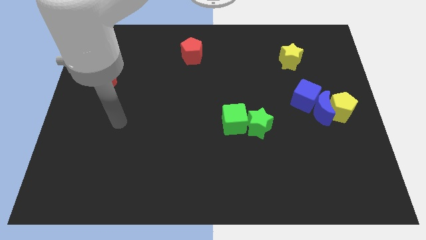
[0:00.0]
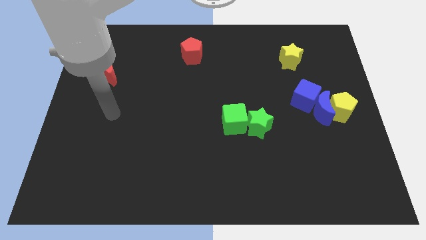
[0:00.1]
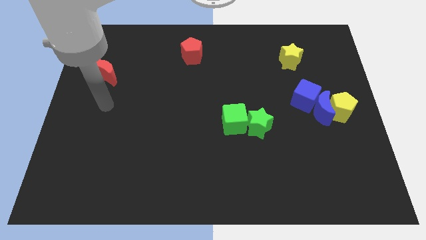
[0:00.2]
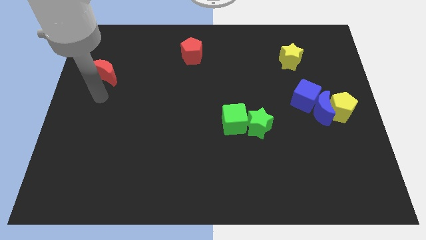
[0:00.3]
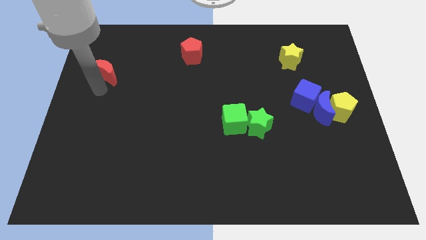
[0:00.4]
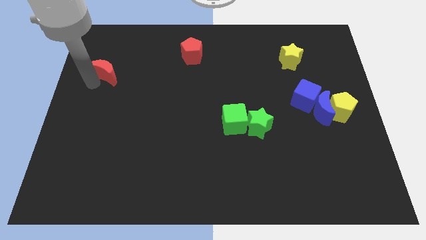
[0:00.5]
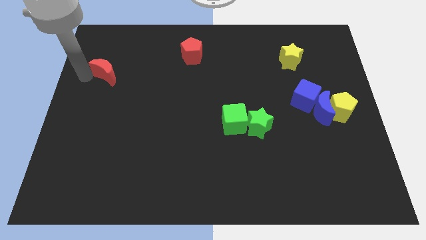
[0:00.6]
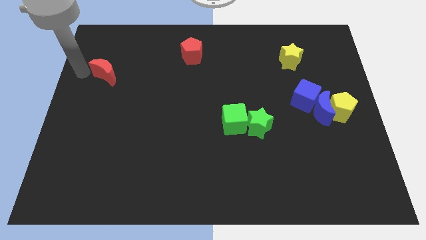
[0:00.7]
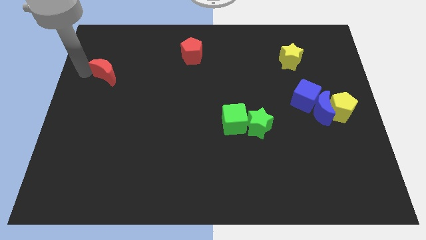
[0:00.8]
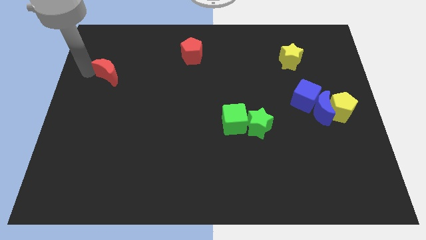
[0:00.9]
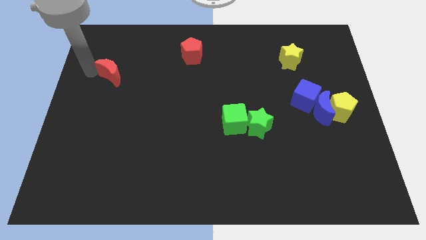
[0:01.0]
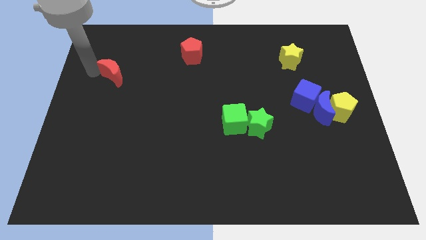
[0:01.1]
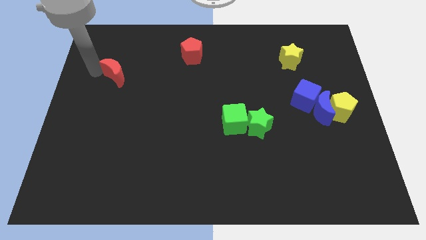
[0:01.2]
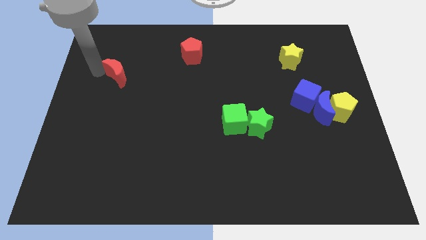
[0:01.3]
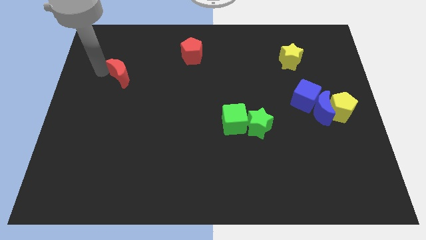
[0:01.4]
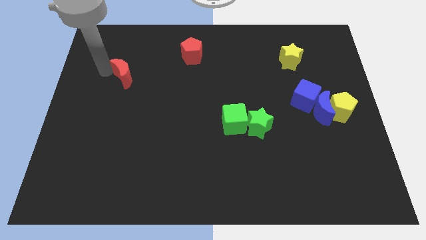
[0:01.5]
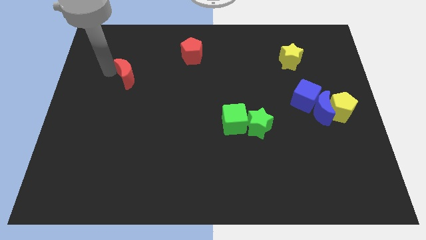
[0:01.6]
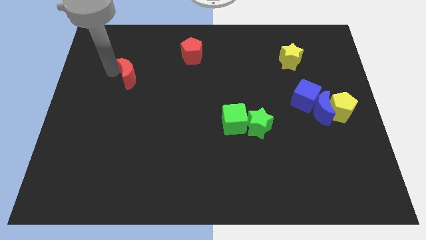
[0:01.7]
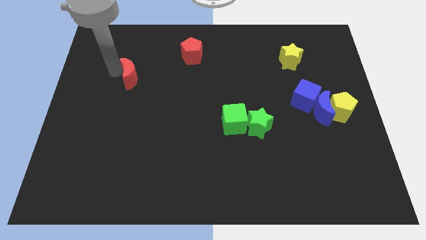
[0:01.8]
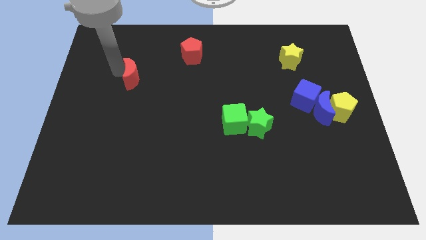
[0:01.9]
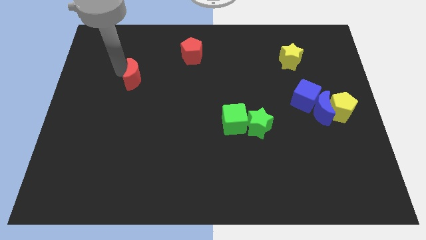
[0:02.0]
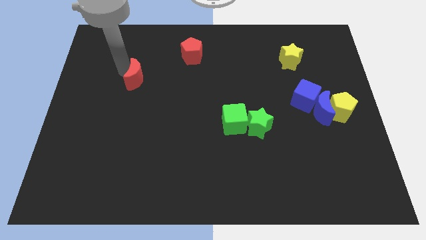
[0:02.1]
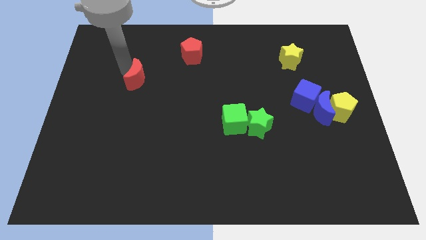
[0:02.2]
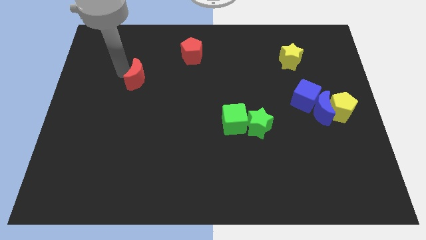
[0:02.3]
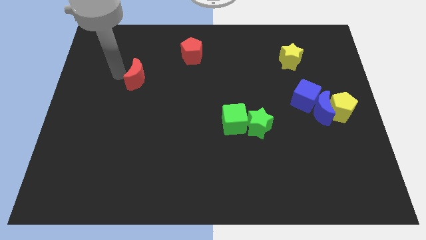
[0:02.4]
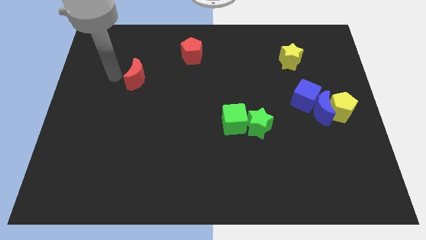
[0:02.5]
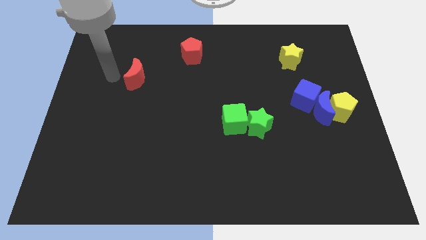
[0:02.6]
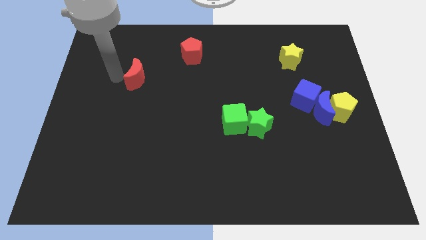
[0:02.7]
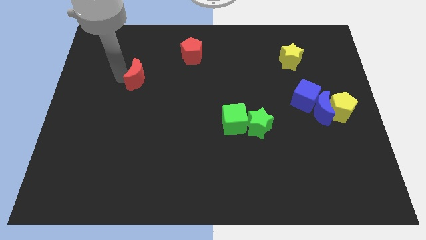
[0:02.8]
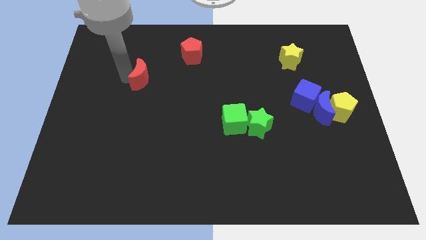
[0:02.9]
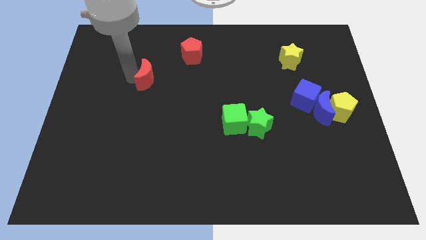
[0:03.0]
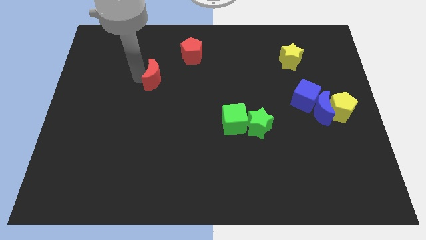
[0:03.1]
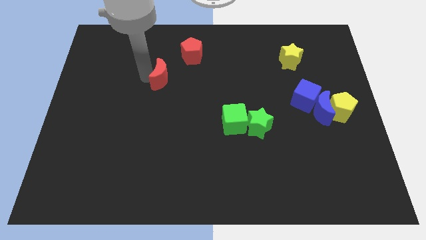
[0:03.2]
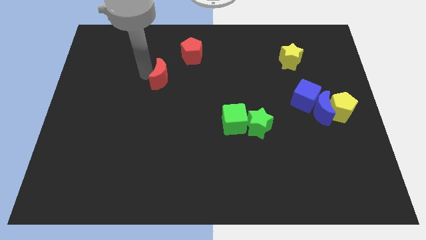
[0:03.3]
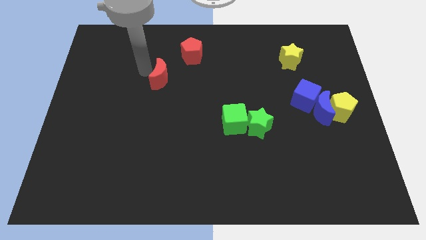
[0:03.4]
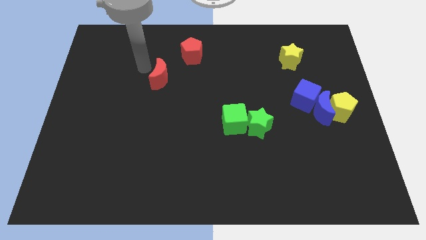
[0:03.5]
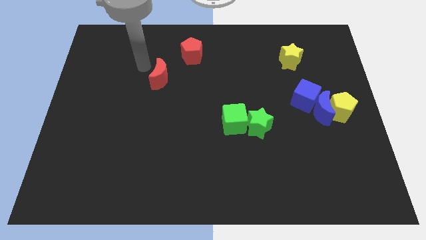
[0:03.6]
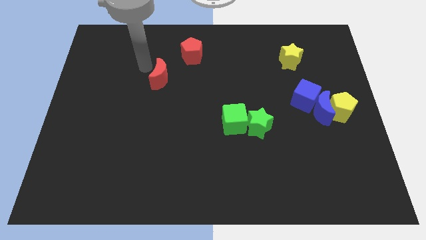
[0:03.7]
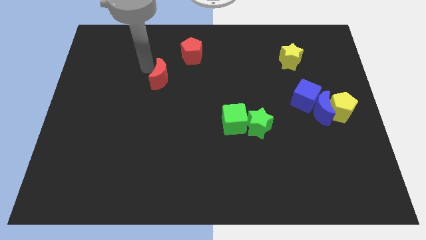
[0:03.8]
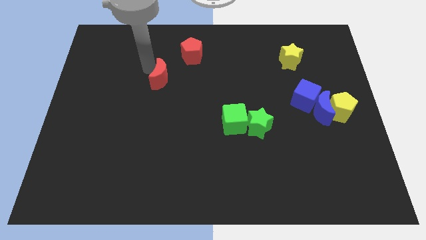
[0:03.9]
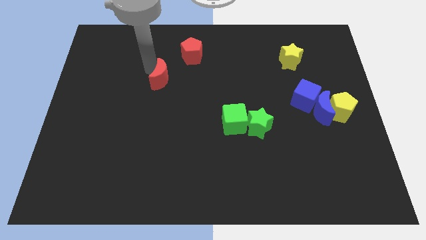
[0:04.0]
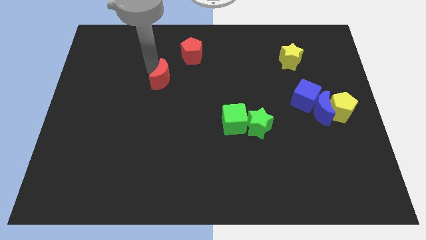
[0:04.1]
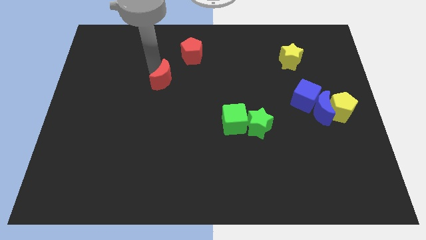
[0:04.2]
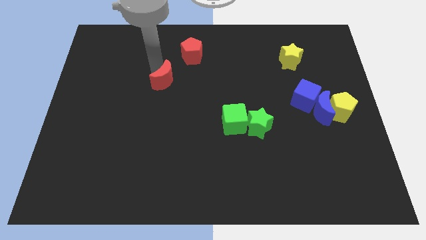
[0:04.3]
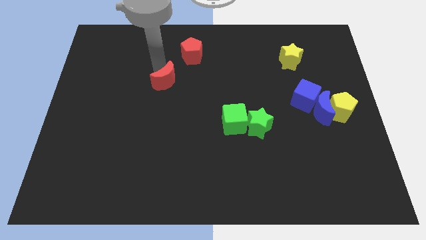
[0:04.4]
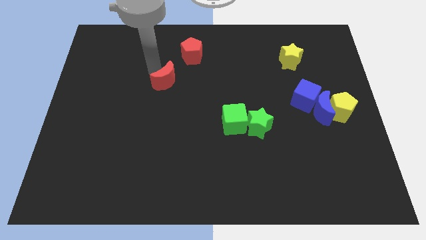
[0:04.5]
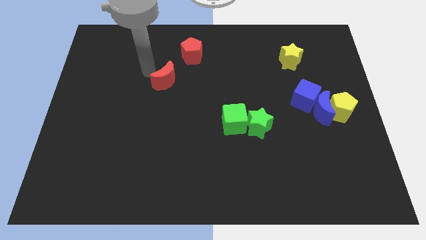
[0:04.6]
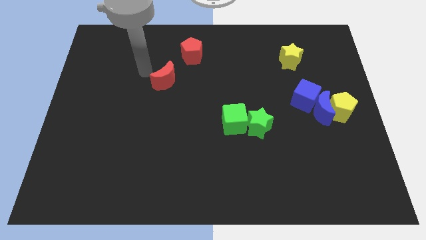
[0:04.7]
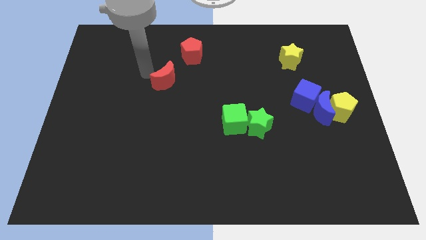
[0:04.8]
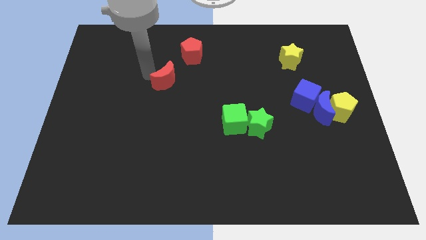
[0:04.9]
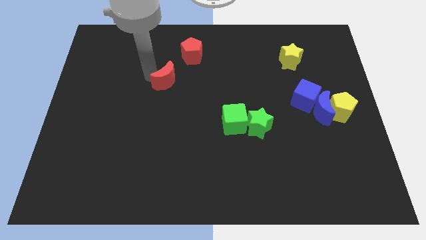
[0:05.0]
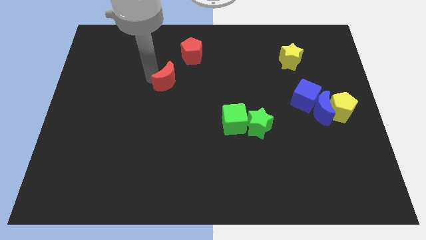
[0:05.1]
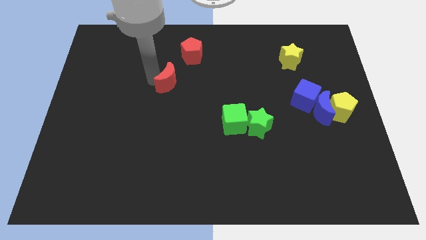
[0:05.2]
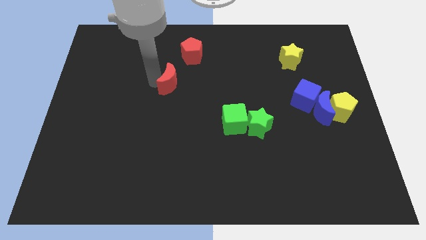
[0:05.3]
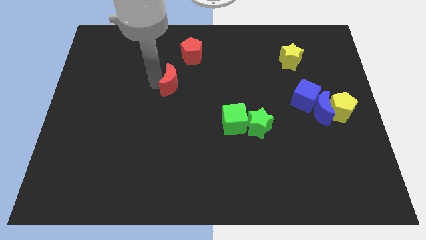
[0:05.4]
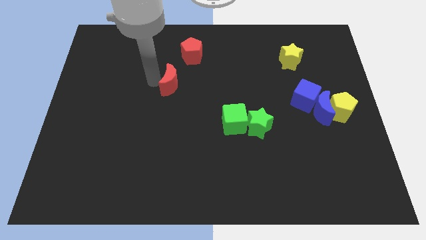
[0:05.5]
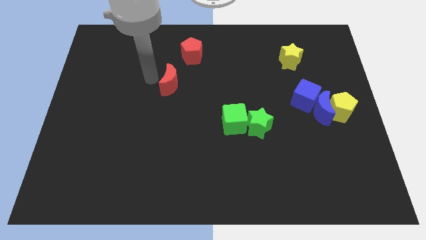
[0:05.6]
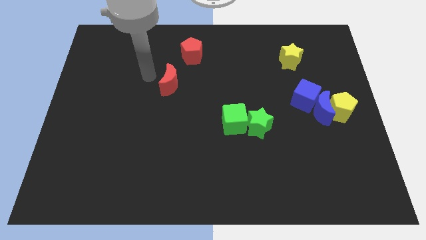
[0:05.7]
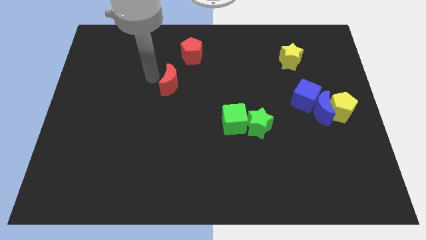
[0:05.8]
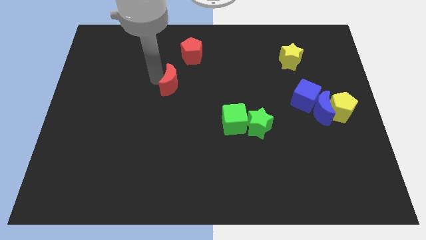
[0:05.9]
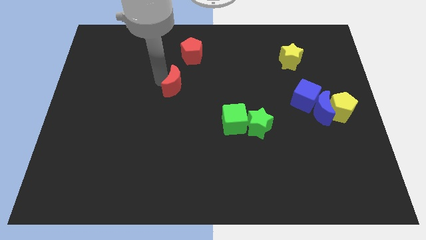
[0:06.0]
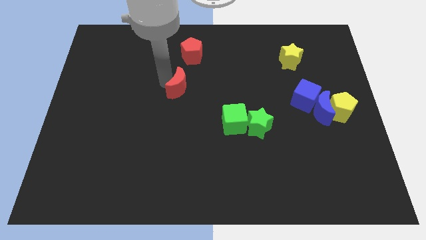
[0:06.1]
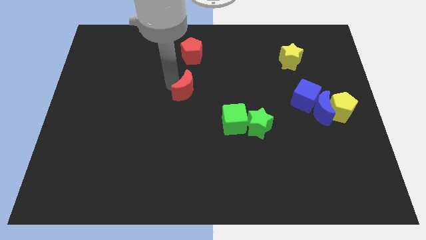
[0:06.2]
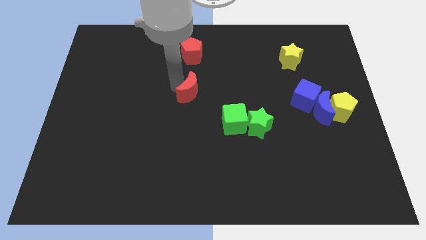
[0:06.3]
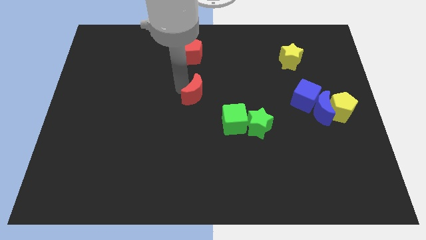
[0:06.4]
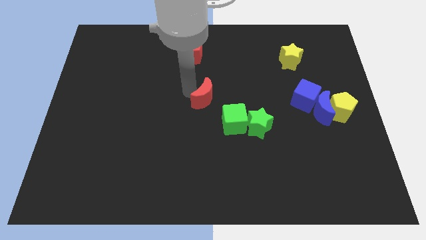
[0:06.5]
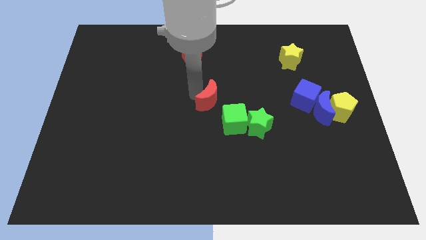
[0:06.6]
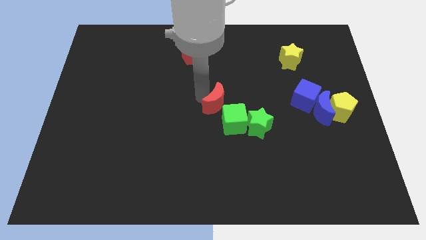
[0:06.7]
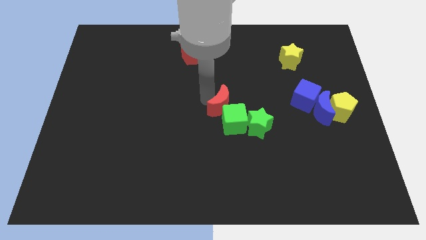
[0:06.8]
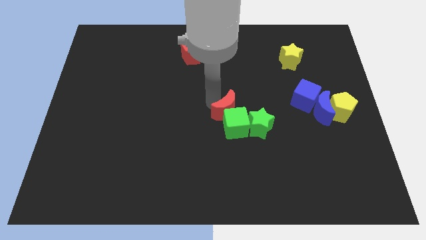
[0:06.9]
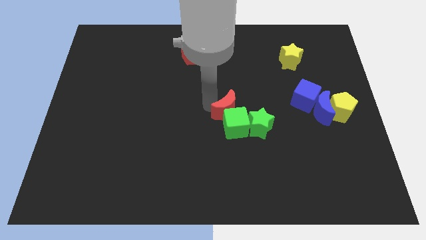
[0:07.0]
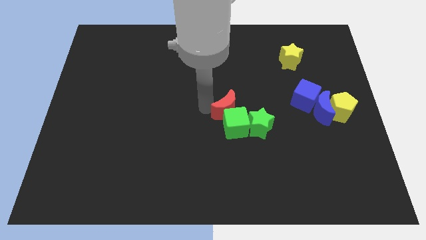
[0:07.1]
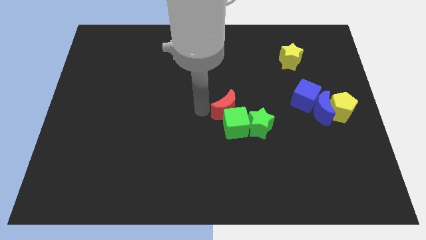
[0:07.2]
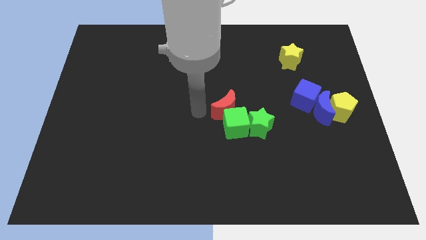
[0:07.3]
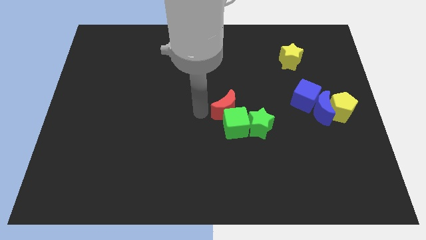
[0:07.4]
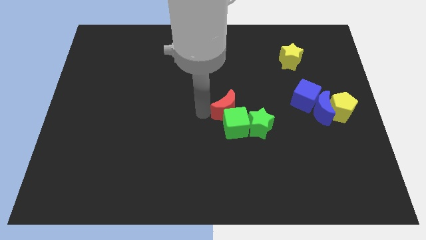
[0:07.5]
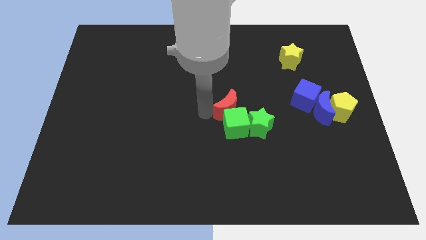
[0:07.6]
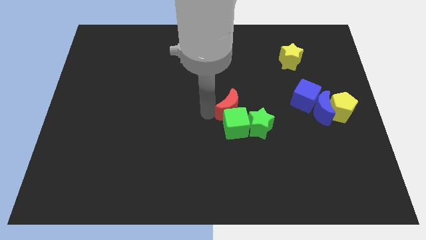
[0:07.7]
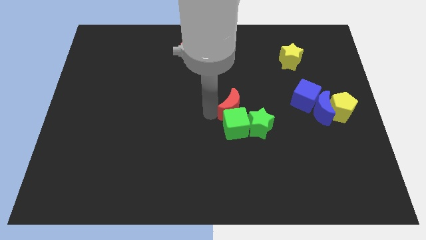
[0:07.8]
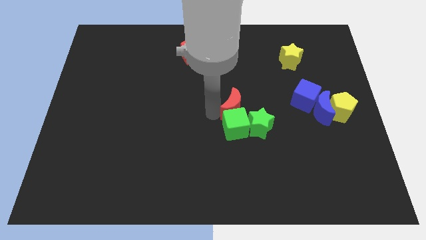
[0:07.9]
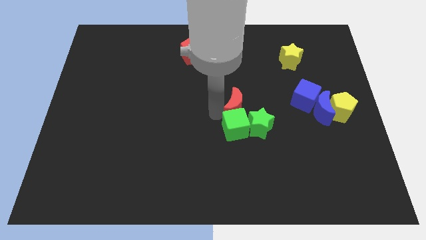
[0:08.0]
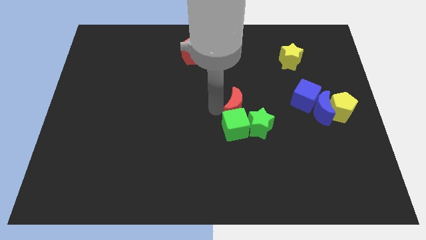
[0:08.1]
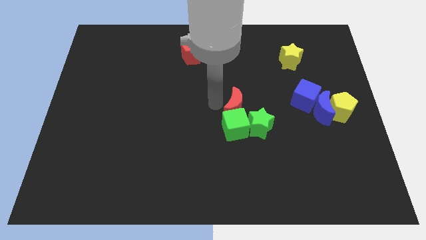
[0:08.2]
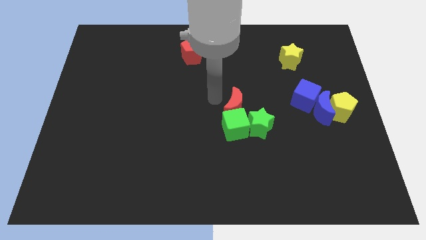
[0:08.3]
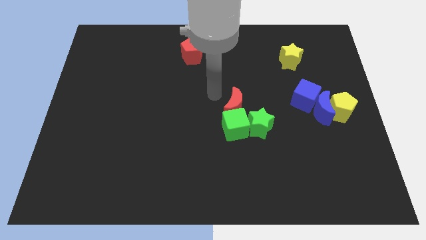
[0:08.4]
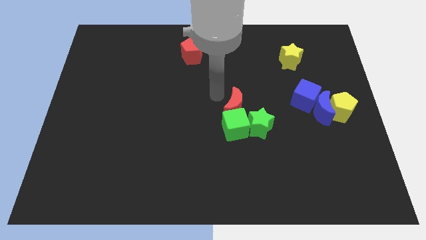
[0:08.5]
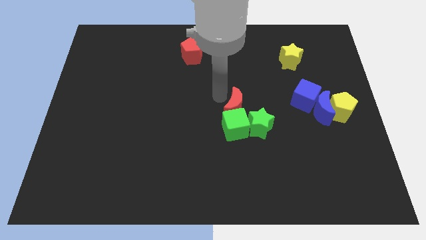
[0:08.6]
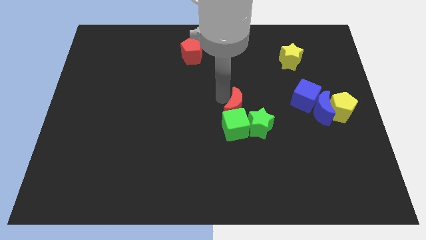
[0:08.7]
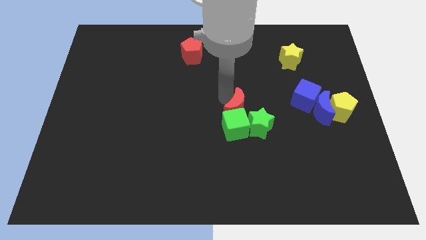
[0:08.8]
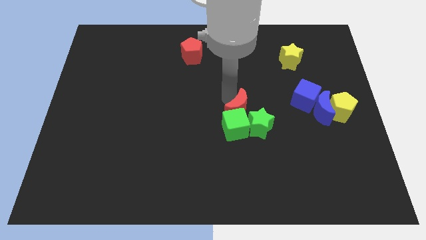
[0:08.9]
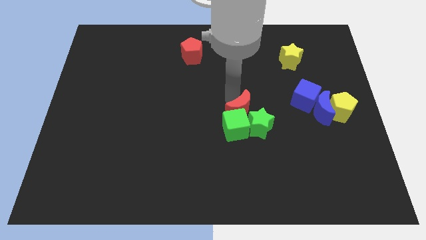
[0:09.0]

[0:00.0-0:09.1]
push the red moon next to the green star
